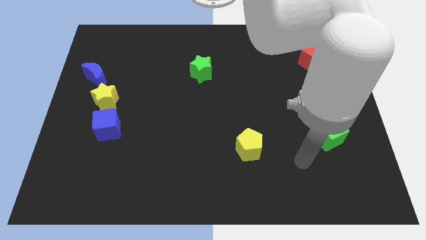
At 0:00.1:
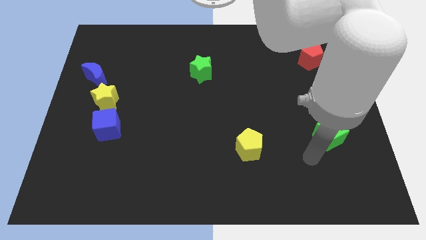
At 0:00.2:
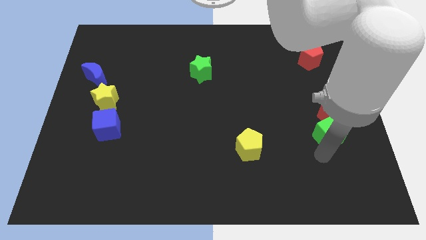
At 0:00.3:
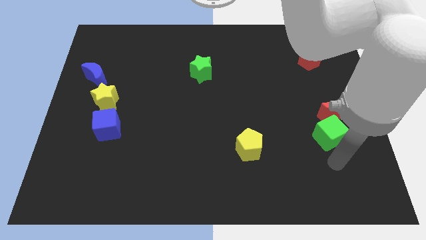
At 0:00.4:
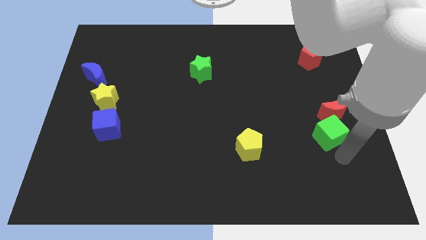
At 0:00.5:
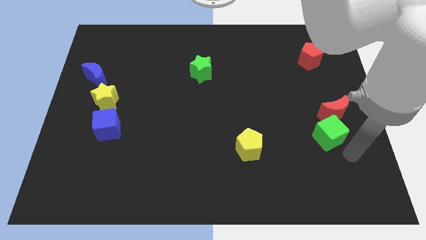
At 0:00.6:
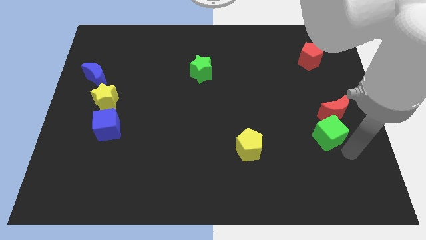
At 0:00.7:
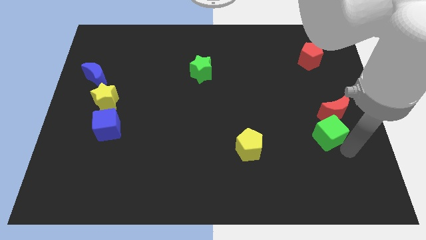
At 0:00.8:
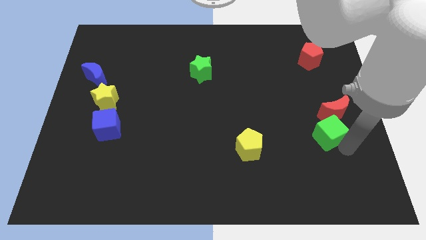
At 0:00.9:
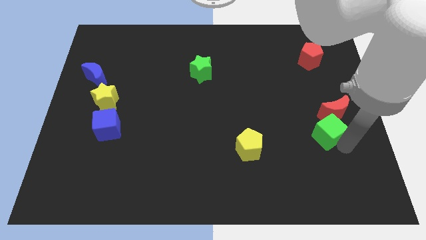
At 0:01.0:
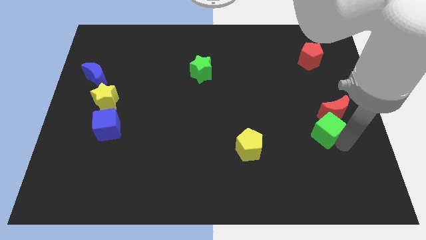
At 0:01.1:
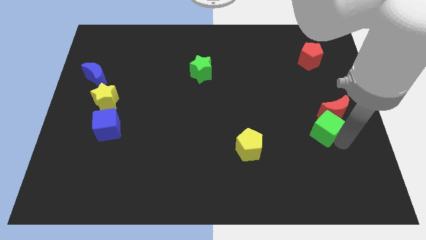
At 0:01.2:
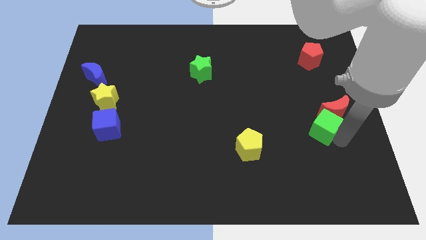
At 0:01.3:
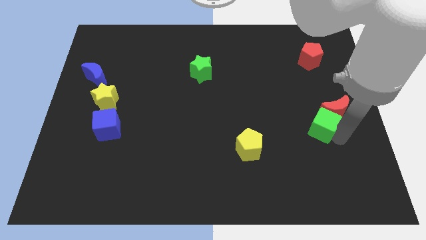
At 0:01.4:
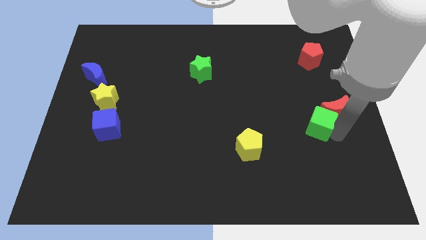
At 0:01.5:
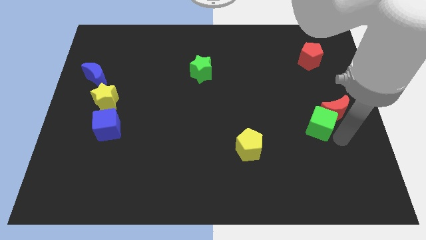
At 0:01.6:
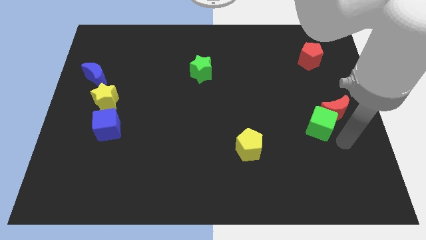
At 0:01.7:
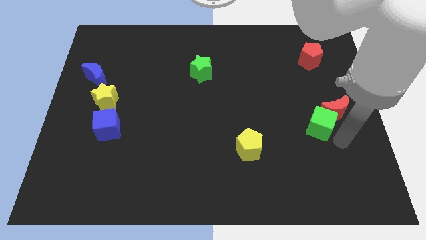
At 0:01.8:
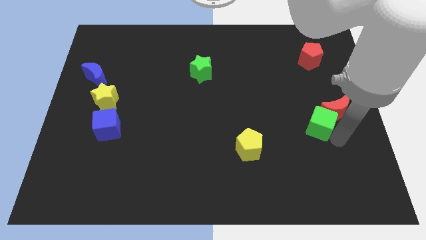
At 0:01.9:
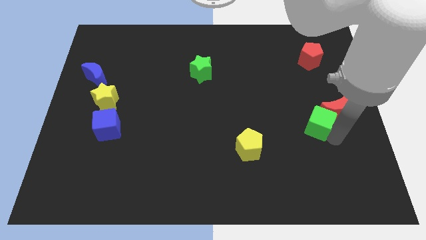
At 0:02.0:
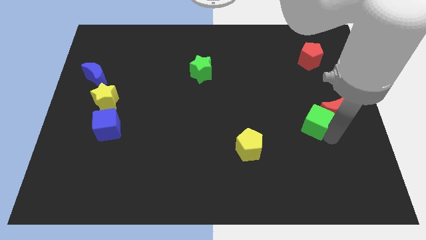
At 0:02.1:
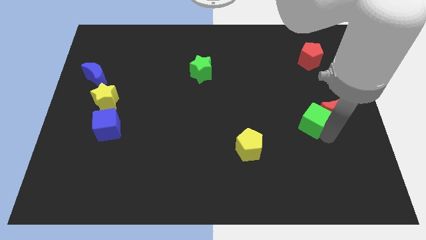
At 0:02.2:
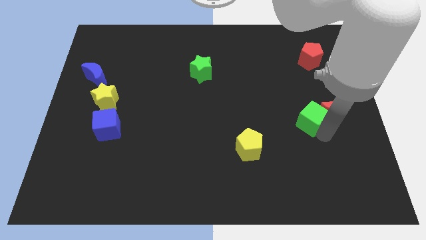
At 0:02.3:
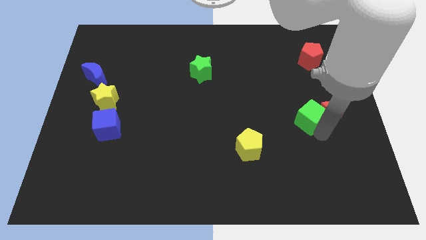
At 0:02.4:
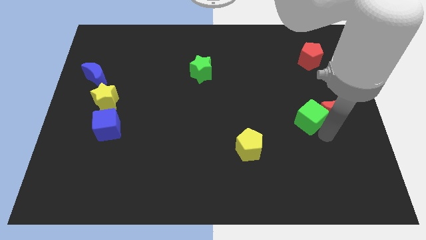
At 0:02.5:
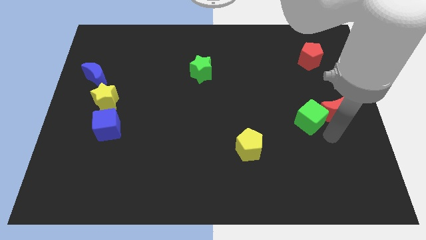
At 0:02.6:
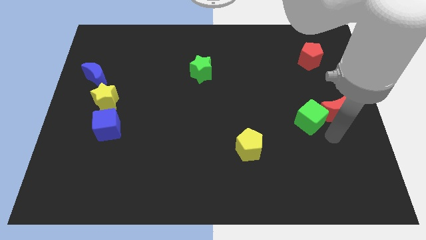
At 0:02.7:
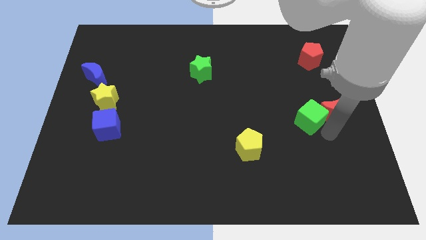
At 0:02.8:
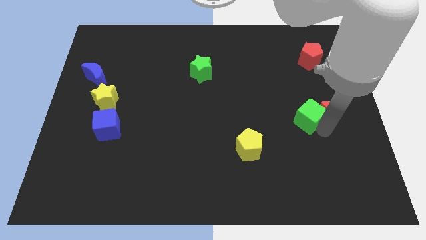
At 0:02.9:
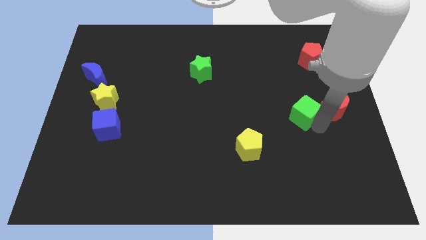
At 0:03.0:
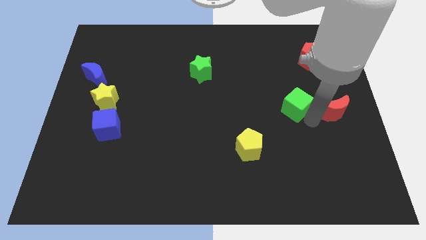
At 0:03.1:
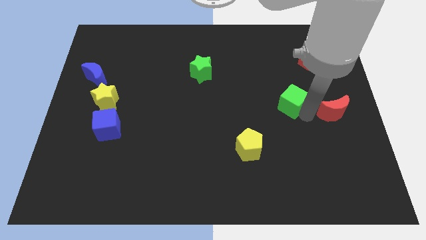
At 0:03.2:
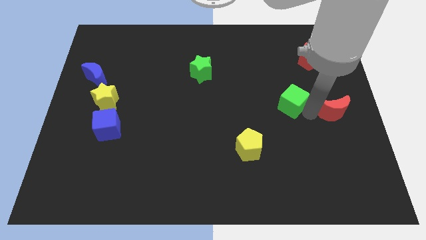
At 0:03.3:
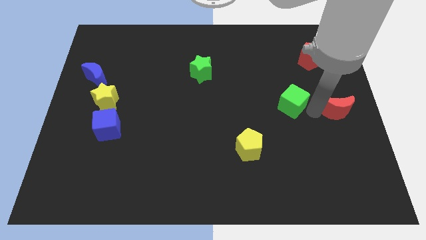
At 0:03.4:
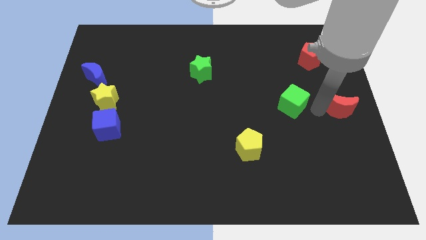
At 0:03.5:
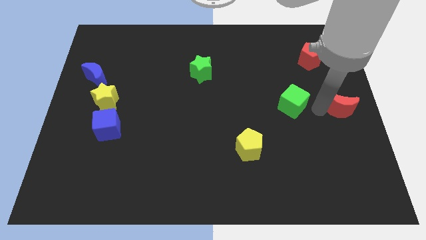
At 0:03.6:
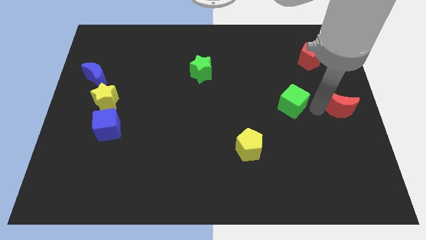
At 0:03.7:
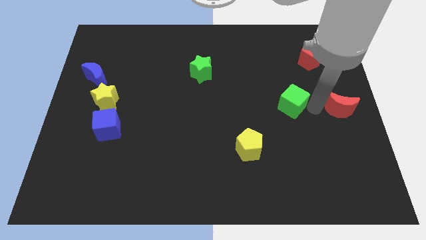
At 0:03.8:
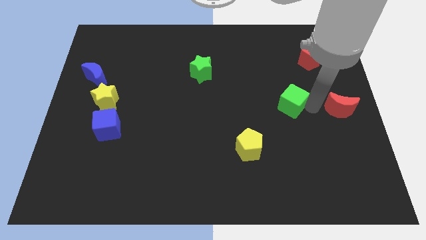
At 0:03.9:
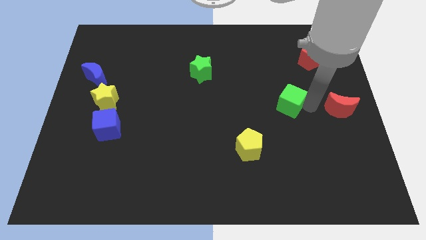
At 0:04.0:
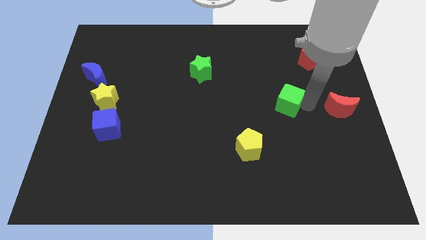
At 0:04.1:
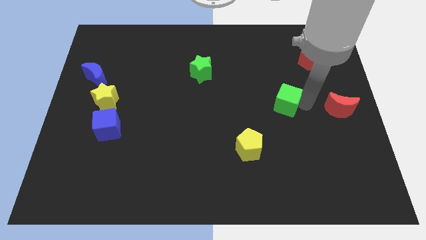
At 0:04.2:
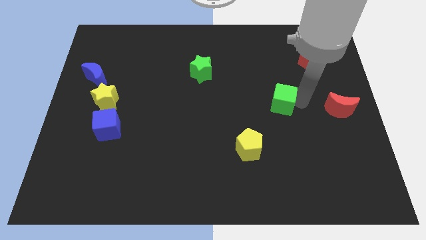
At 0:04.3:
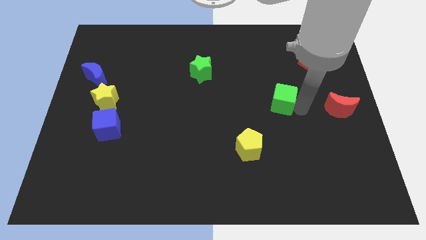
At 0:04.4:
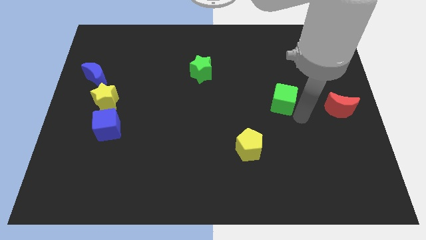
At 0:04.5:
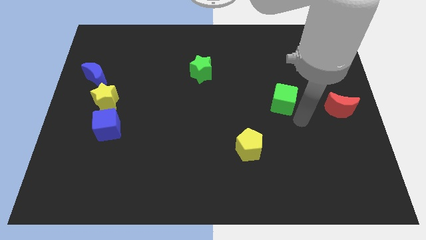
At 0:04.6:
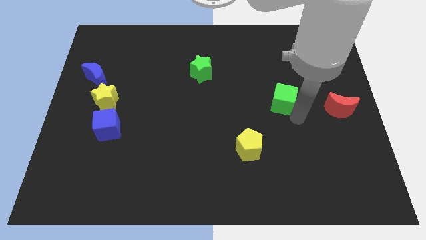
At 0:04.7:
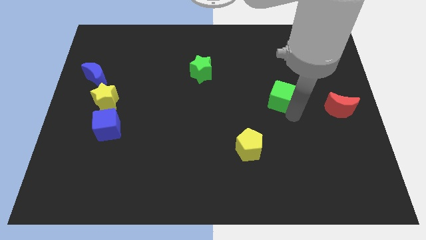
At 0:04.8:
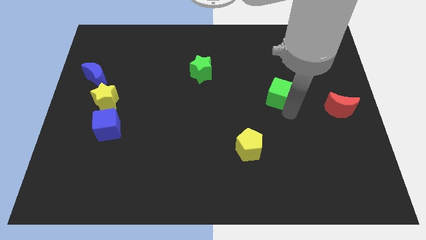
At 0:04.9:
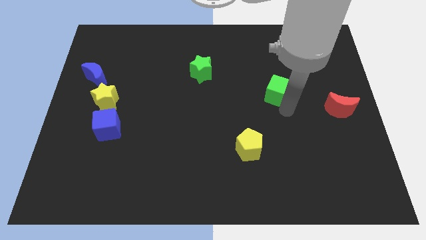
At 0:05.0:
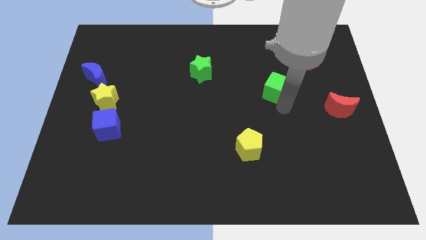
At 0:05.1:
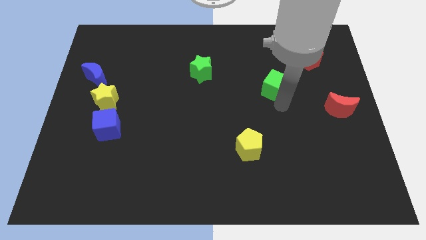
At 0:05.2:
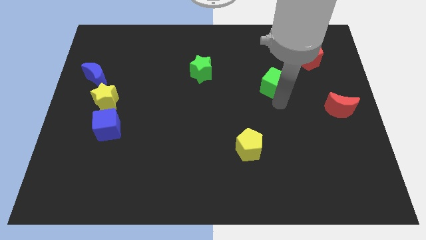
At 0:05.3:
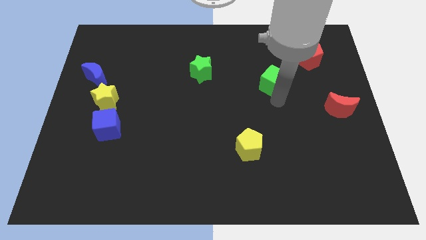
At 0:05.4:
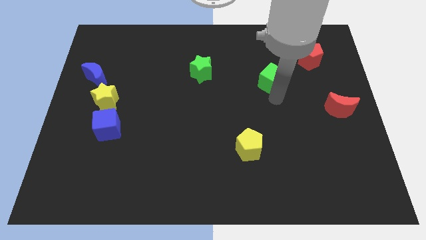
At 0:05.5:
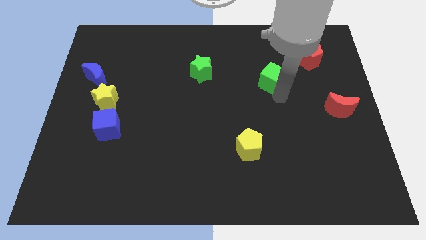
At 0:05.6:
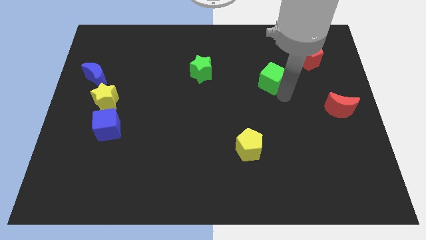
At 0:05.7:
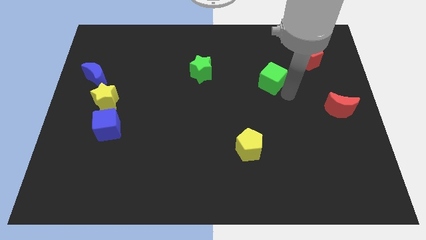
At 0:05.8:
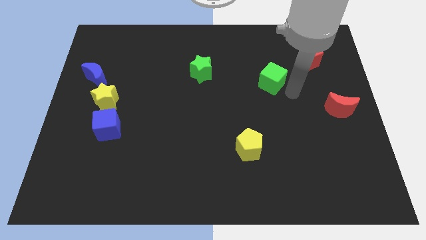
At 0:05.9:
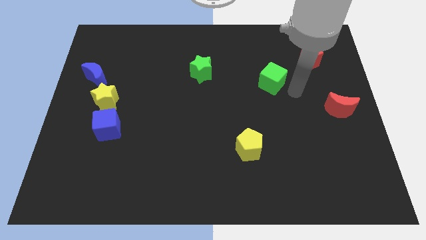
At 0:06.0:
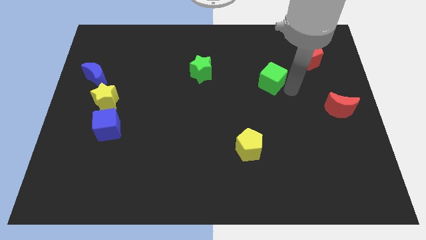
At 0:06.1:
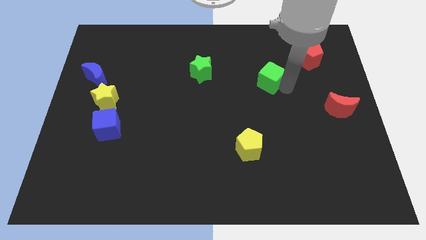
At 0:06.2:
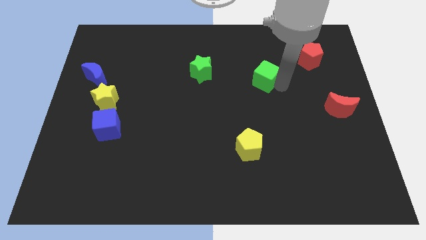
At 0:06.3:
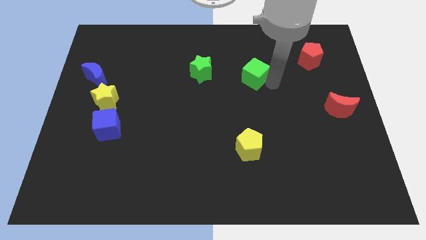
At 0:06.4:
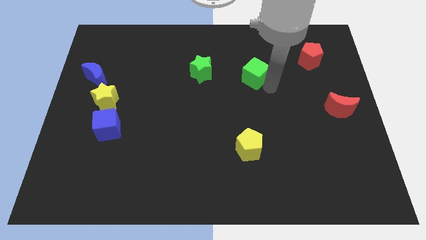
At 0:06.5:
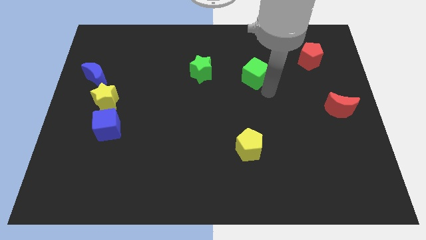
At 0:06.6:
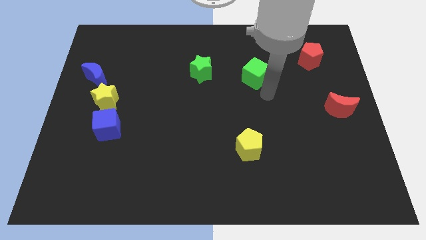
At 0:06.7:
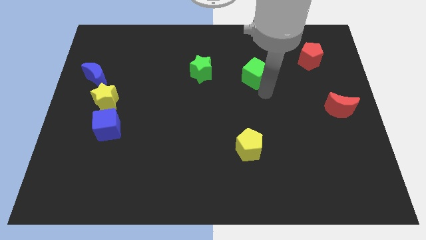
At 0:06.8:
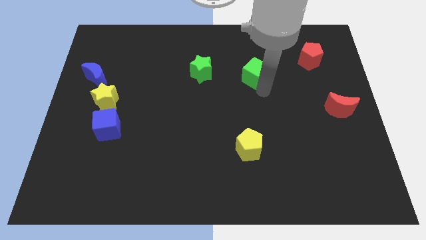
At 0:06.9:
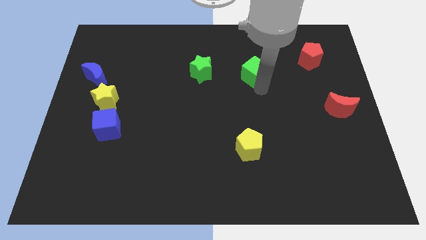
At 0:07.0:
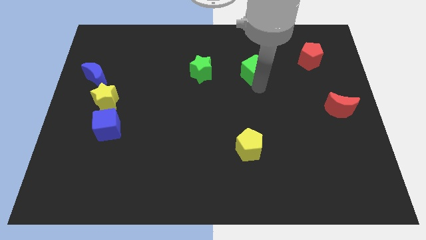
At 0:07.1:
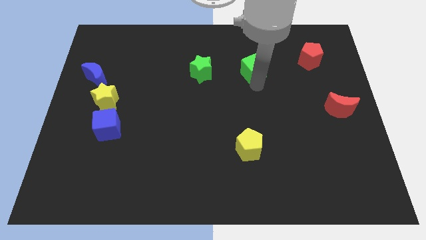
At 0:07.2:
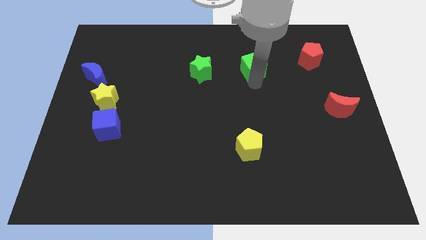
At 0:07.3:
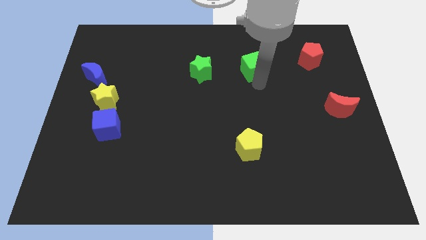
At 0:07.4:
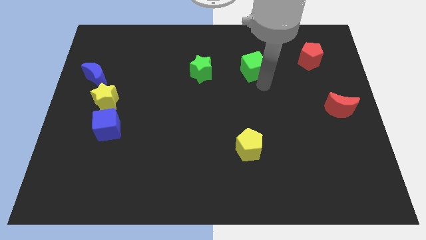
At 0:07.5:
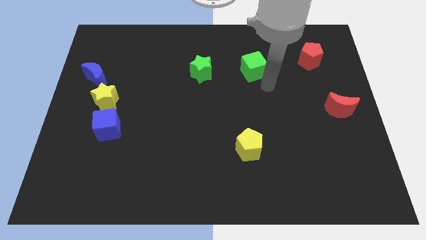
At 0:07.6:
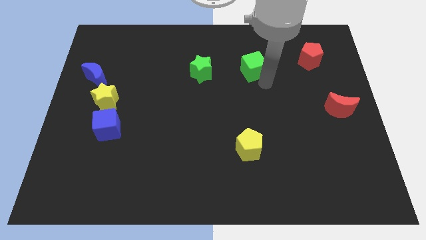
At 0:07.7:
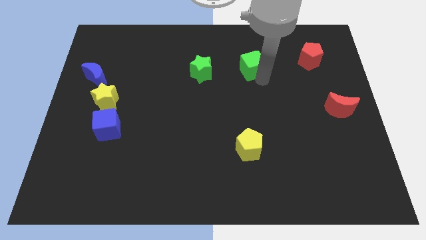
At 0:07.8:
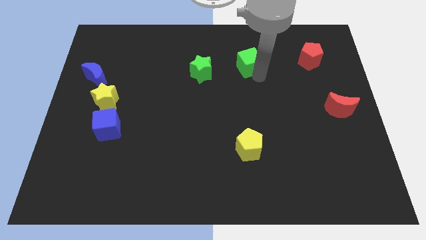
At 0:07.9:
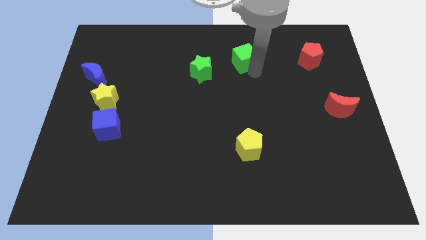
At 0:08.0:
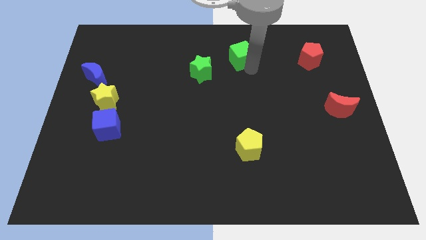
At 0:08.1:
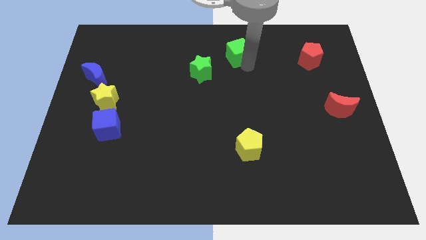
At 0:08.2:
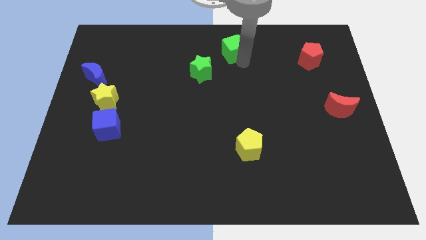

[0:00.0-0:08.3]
push the green cube to the towards your base
